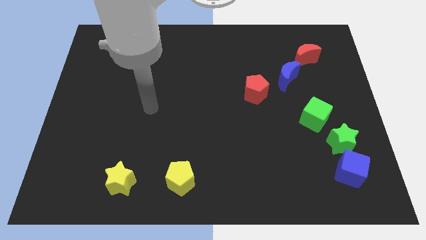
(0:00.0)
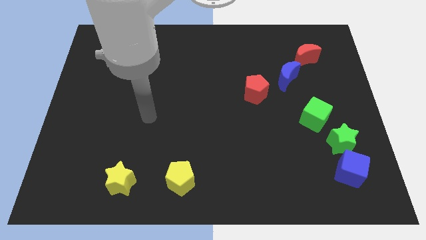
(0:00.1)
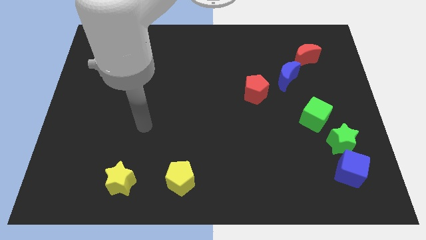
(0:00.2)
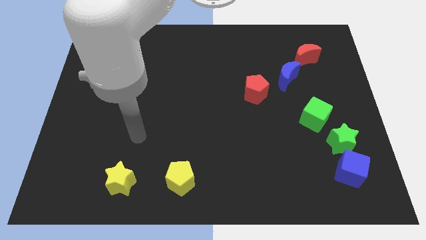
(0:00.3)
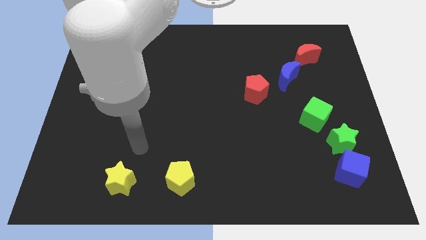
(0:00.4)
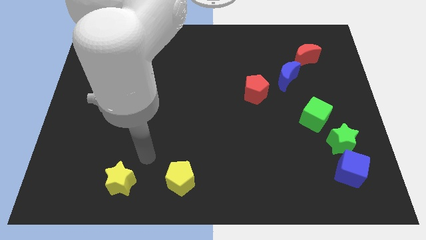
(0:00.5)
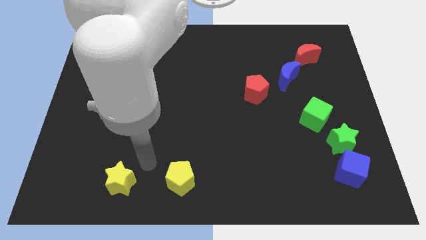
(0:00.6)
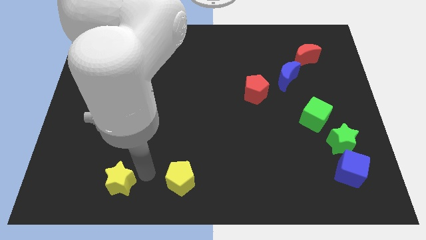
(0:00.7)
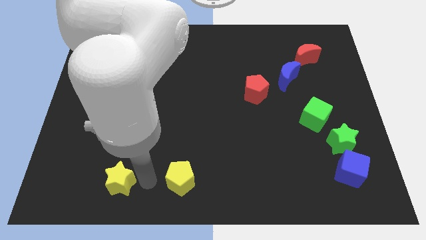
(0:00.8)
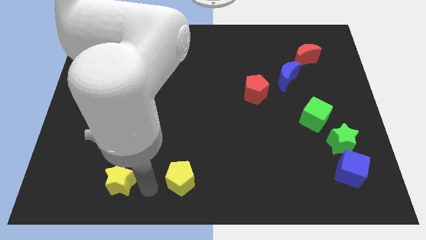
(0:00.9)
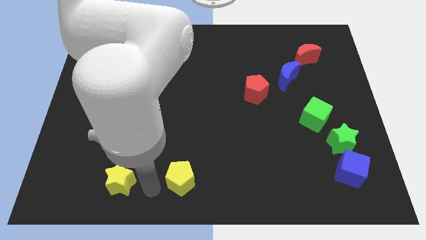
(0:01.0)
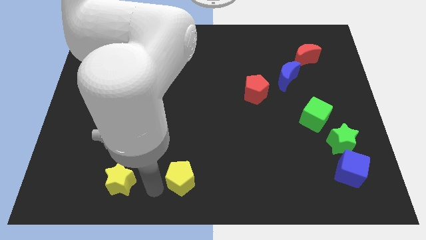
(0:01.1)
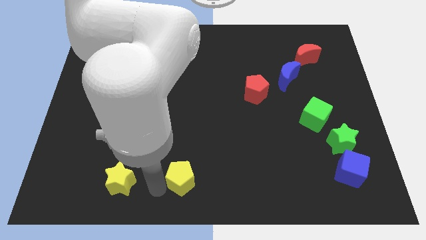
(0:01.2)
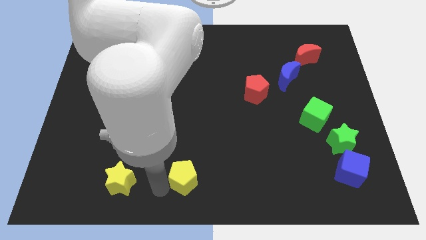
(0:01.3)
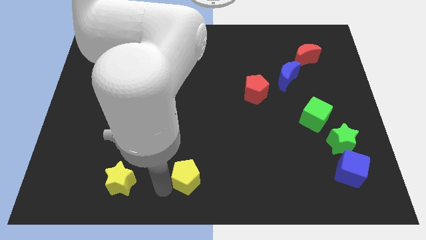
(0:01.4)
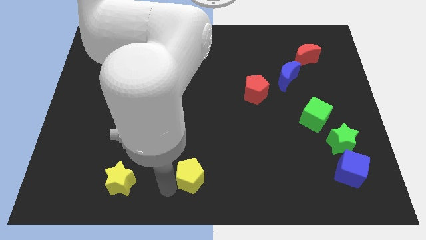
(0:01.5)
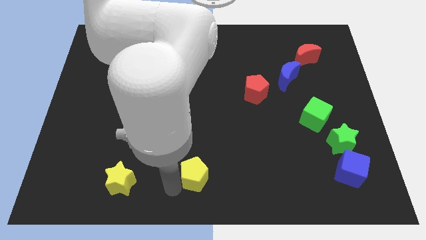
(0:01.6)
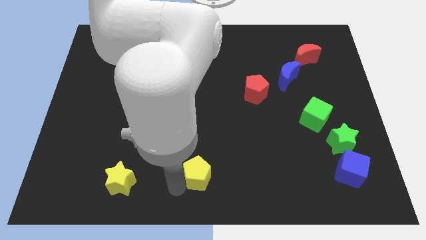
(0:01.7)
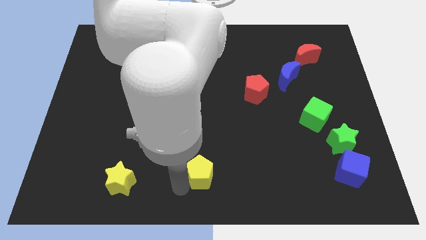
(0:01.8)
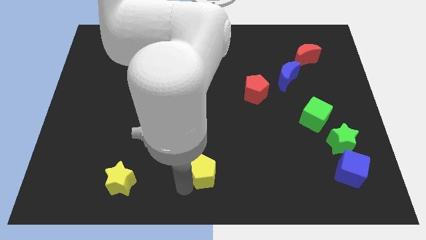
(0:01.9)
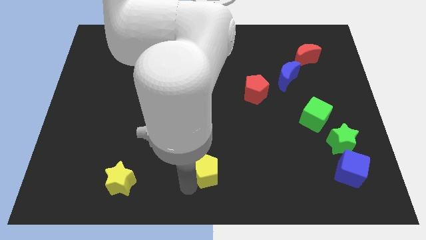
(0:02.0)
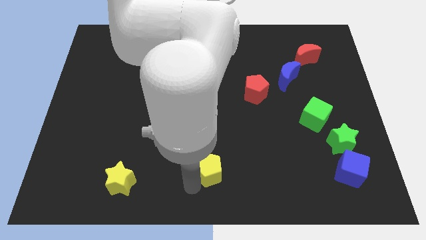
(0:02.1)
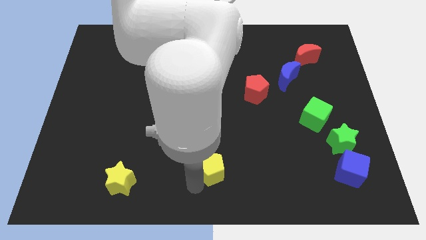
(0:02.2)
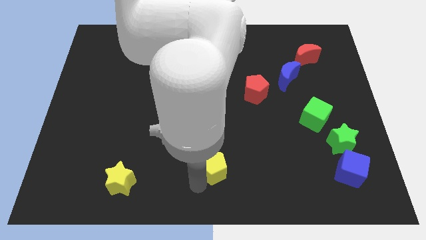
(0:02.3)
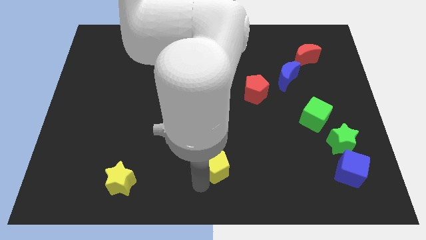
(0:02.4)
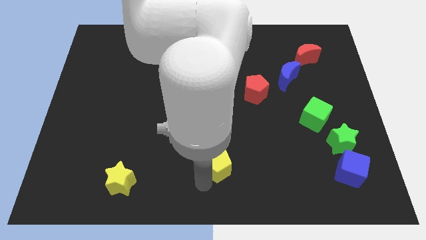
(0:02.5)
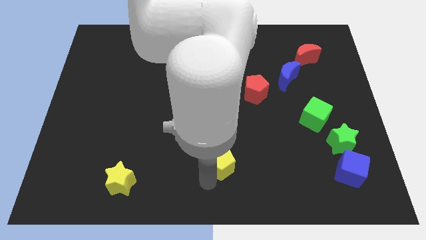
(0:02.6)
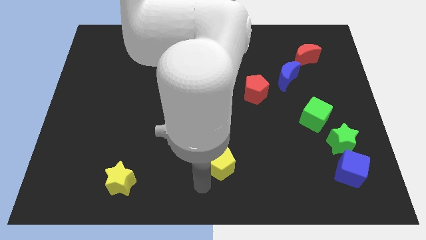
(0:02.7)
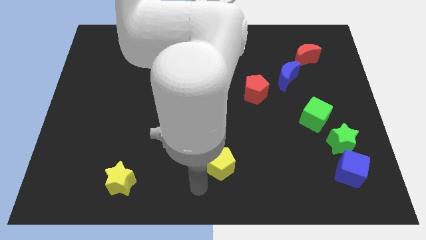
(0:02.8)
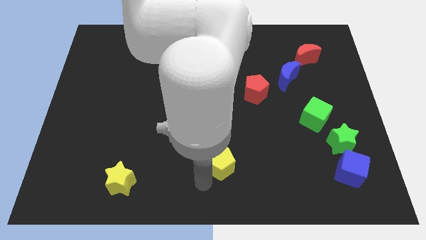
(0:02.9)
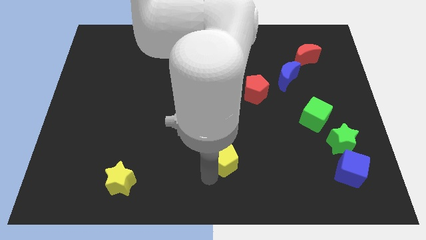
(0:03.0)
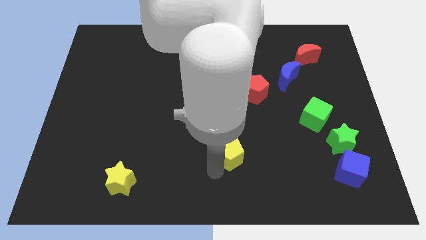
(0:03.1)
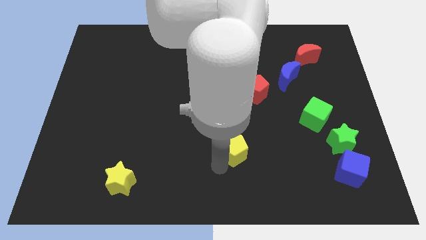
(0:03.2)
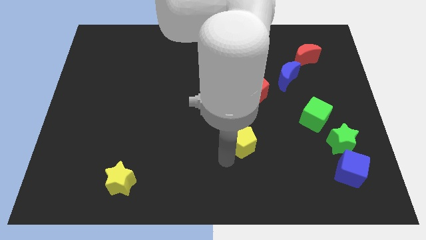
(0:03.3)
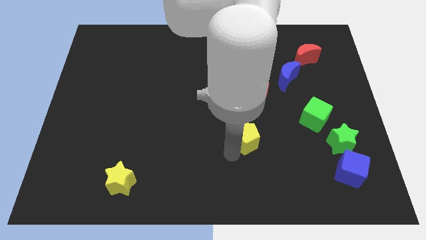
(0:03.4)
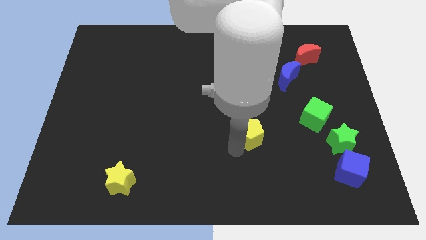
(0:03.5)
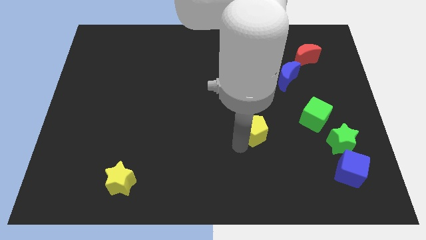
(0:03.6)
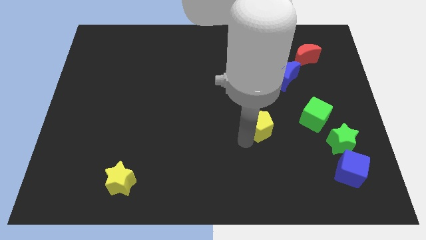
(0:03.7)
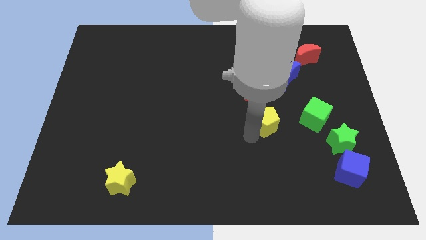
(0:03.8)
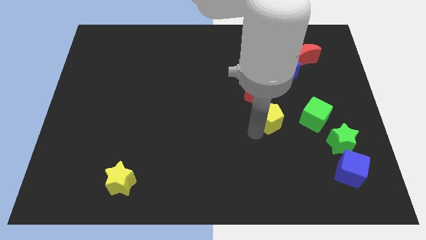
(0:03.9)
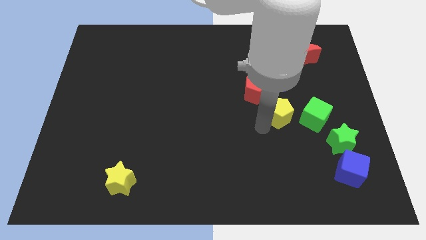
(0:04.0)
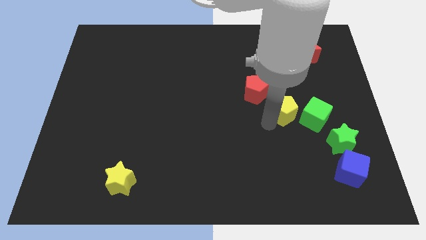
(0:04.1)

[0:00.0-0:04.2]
slide the yellow pentagon to the top left side of the green cube

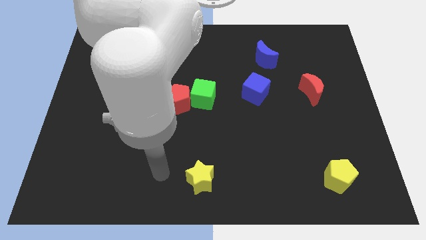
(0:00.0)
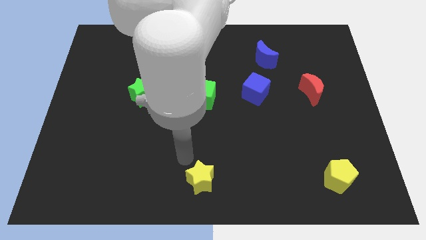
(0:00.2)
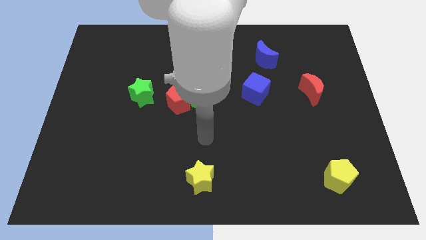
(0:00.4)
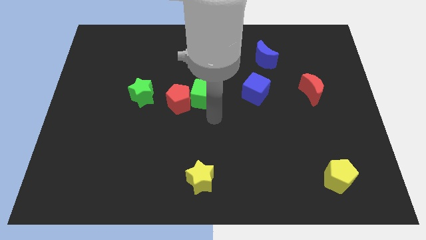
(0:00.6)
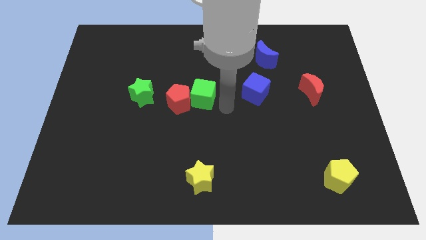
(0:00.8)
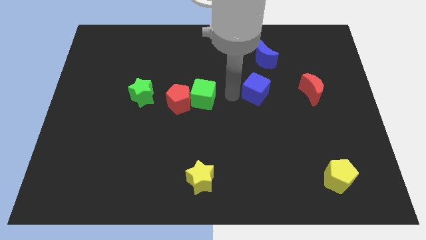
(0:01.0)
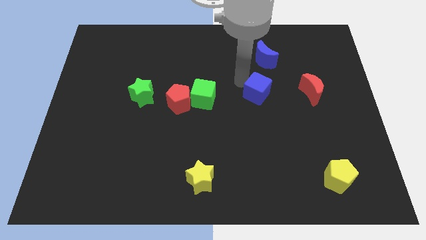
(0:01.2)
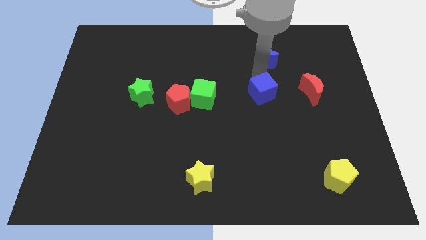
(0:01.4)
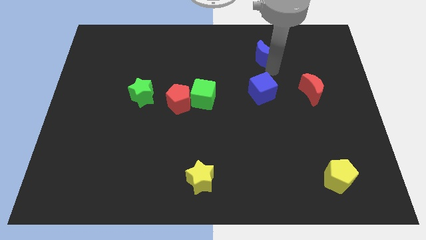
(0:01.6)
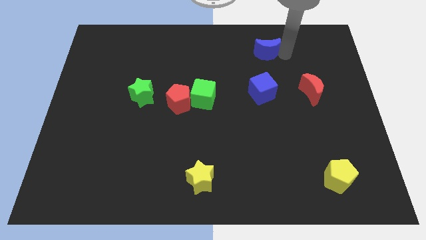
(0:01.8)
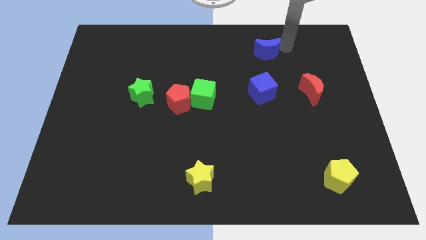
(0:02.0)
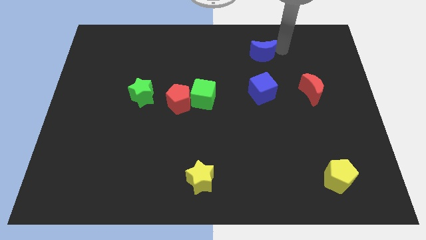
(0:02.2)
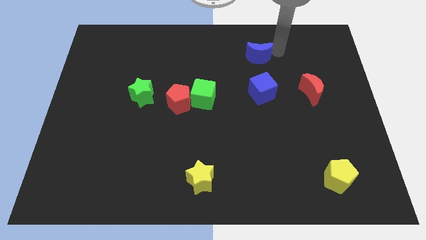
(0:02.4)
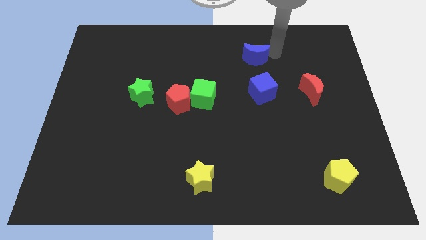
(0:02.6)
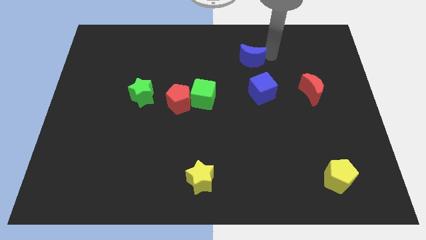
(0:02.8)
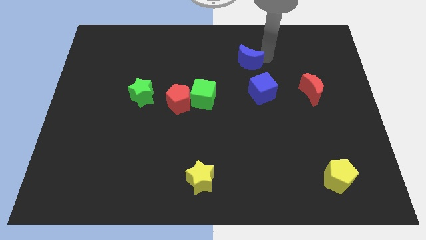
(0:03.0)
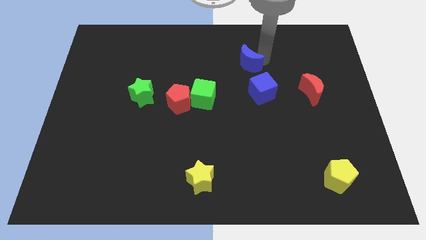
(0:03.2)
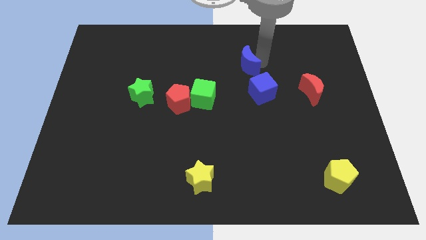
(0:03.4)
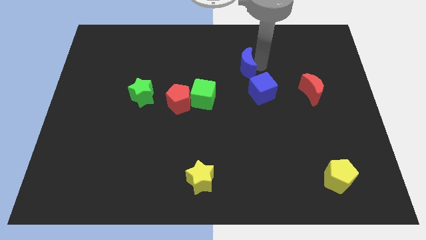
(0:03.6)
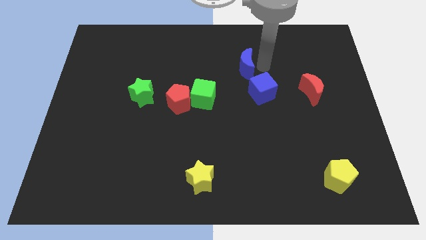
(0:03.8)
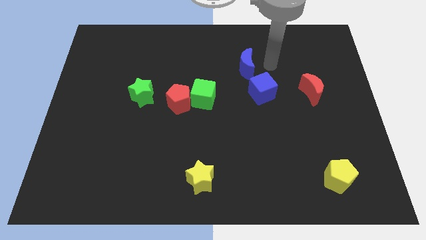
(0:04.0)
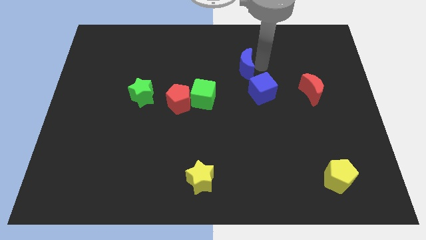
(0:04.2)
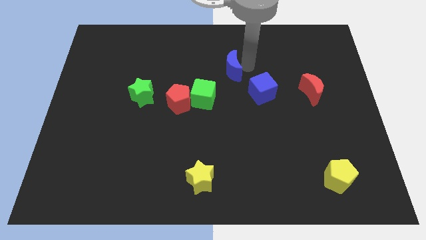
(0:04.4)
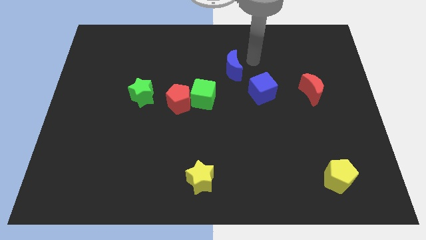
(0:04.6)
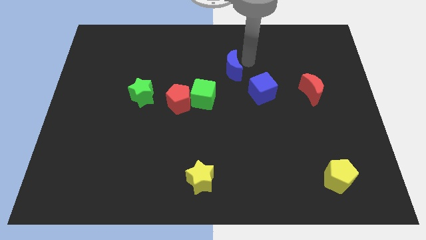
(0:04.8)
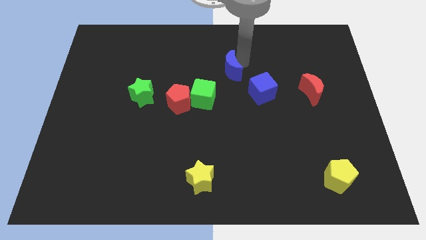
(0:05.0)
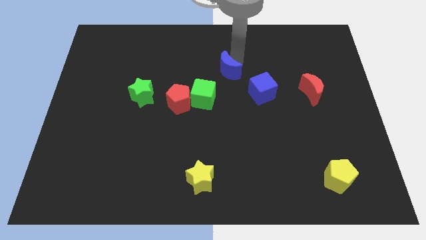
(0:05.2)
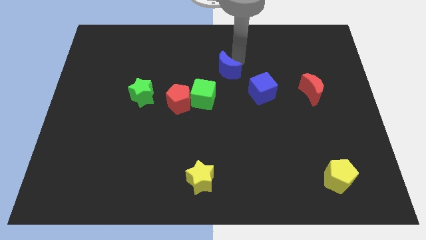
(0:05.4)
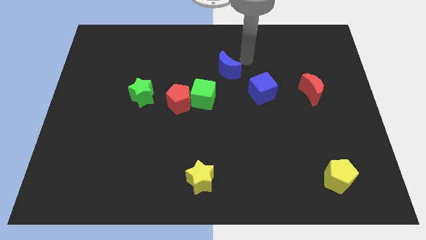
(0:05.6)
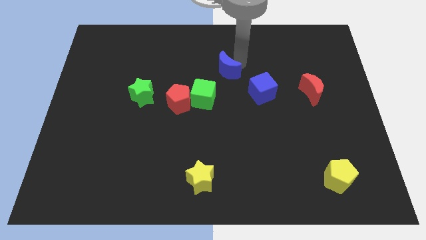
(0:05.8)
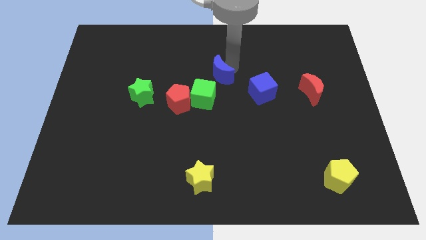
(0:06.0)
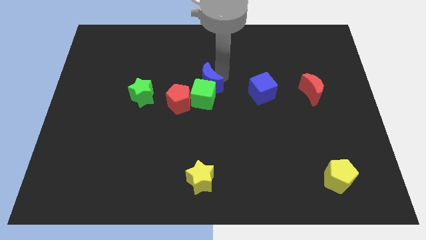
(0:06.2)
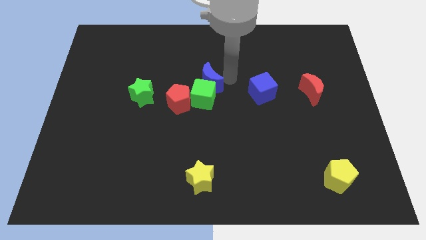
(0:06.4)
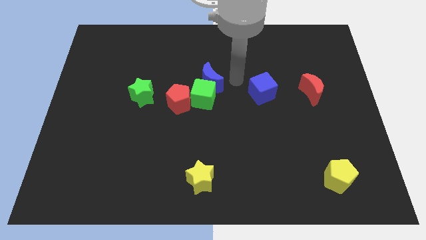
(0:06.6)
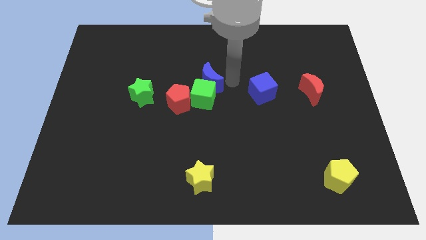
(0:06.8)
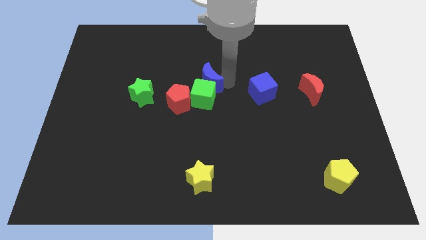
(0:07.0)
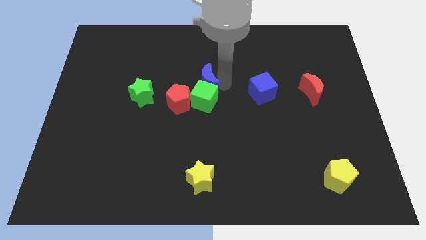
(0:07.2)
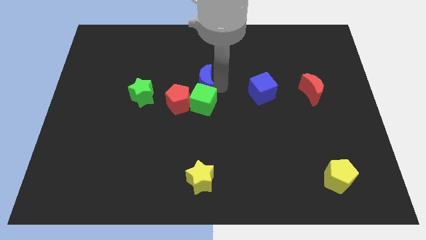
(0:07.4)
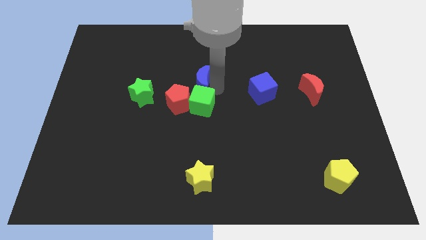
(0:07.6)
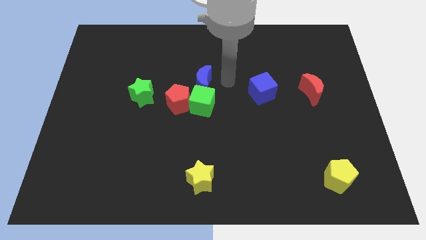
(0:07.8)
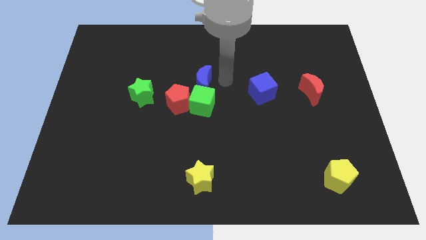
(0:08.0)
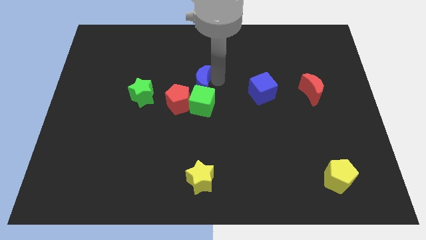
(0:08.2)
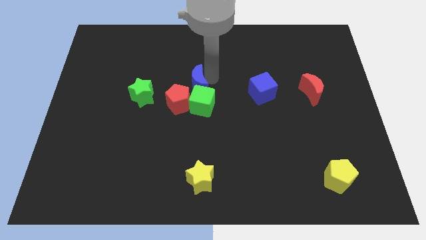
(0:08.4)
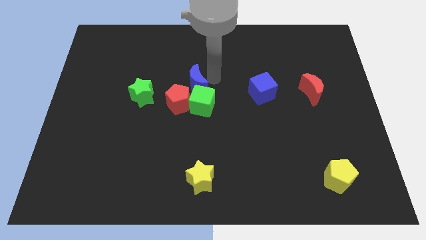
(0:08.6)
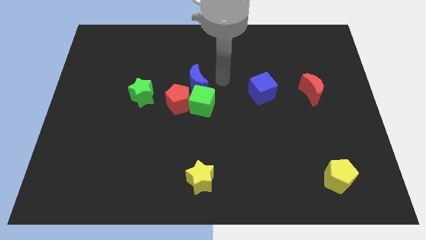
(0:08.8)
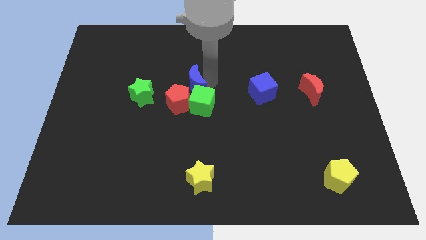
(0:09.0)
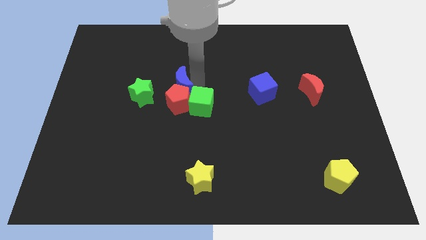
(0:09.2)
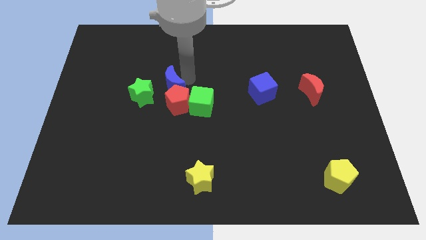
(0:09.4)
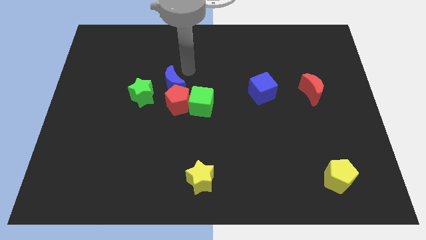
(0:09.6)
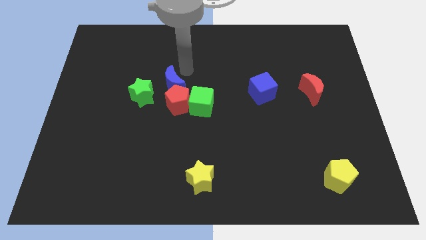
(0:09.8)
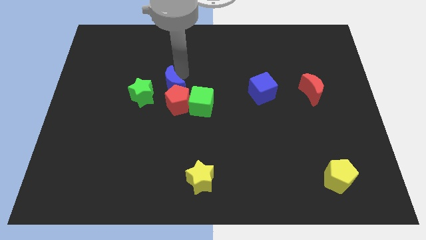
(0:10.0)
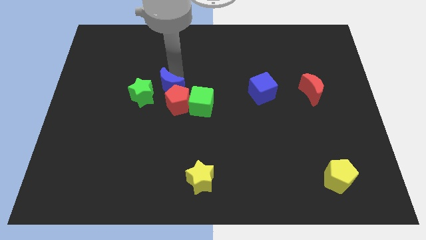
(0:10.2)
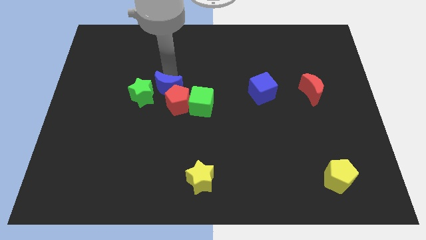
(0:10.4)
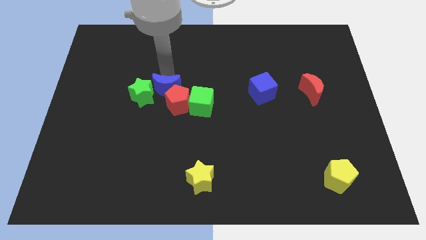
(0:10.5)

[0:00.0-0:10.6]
put the blue moon to the left of the green cube
